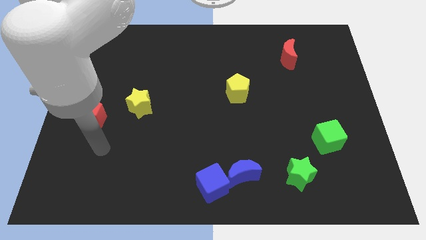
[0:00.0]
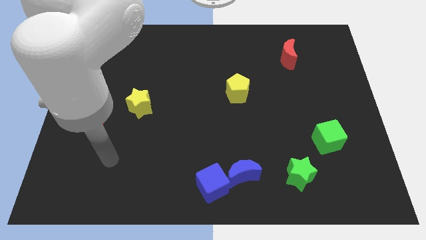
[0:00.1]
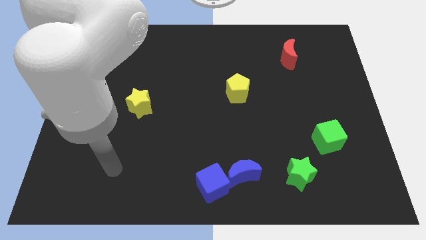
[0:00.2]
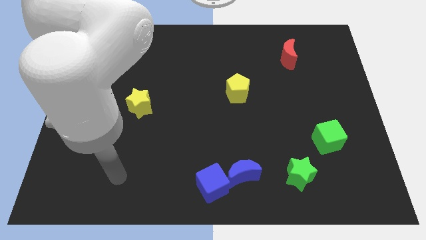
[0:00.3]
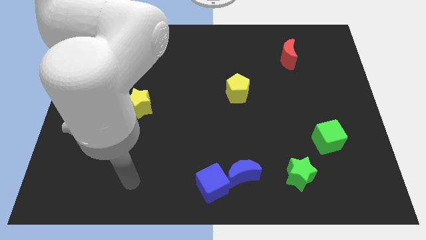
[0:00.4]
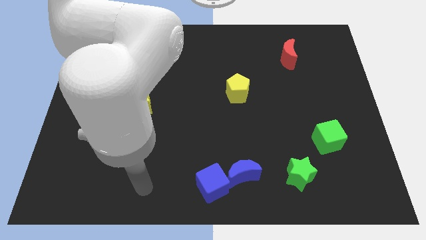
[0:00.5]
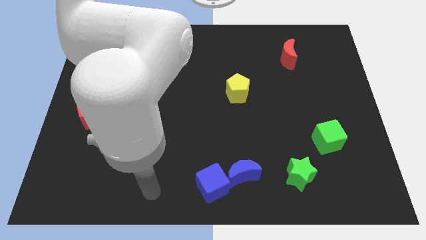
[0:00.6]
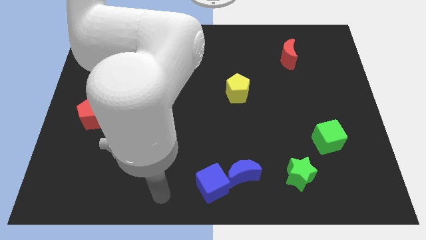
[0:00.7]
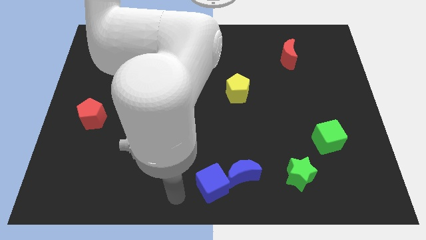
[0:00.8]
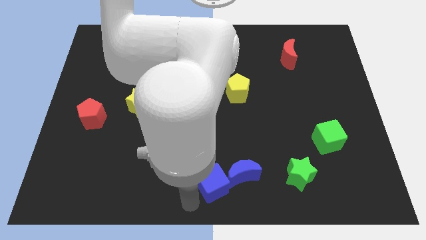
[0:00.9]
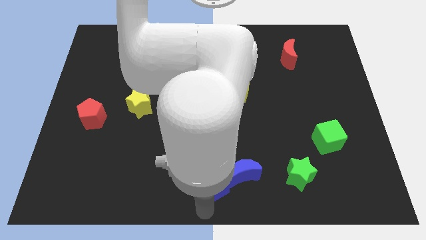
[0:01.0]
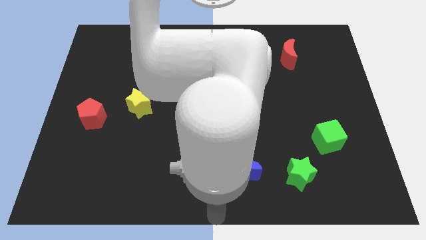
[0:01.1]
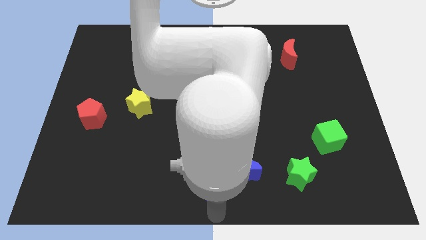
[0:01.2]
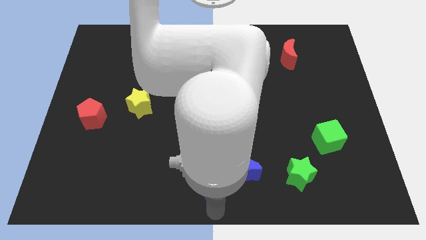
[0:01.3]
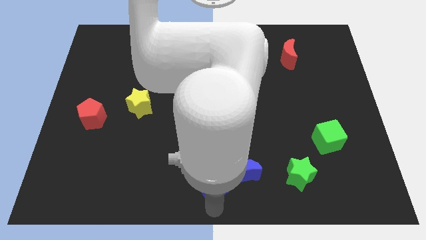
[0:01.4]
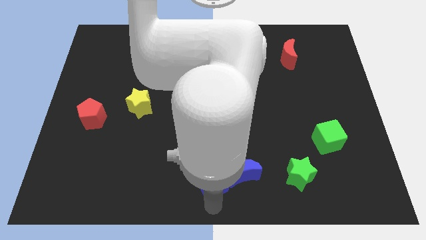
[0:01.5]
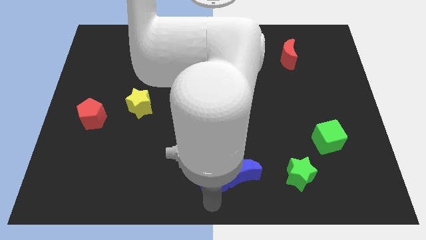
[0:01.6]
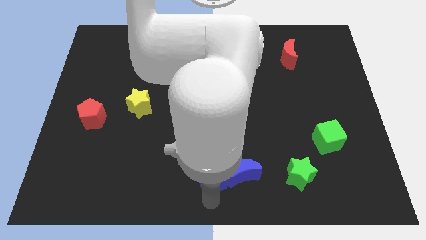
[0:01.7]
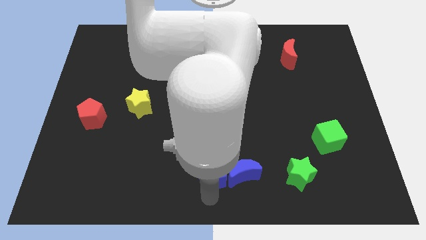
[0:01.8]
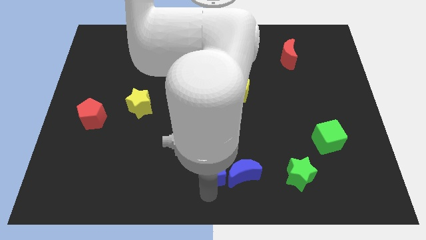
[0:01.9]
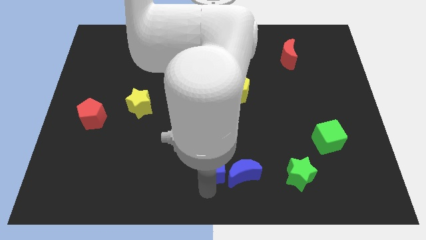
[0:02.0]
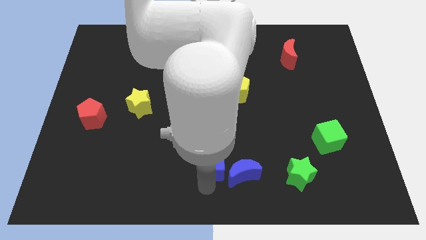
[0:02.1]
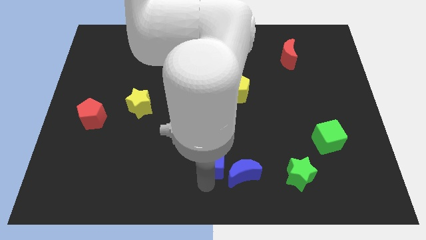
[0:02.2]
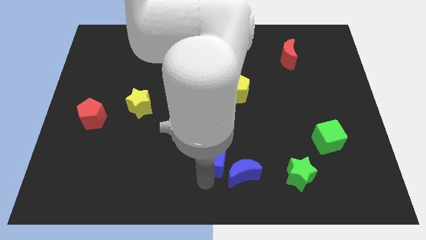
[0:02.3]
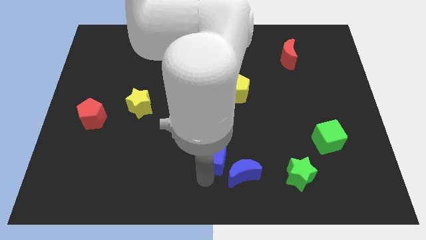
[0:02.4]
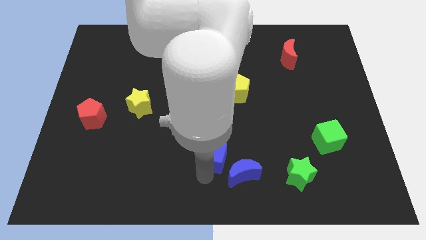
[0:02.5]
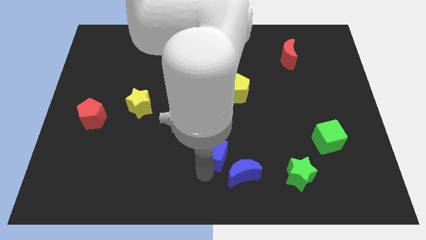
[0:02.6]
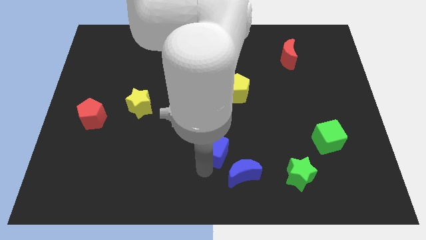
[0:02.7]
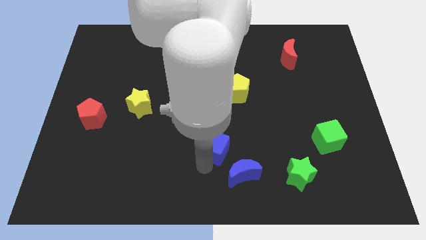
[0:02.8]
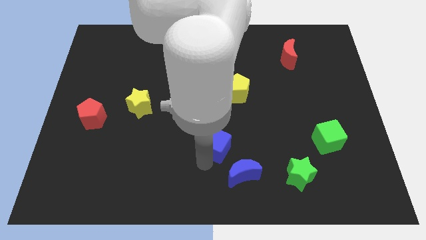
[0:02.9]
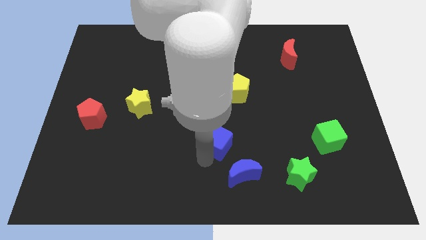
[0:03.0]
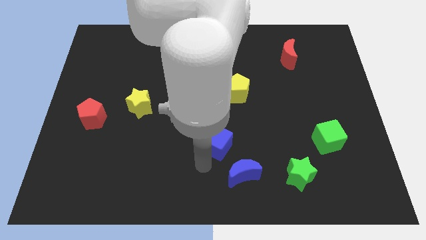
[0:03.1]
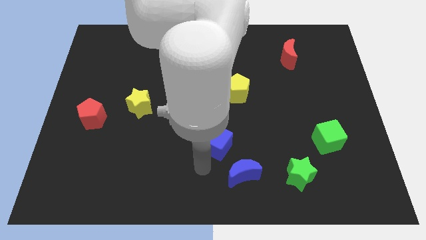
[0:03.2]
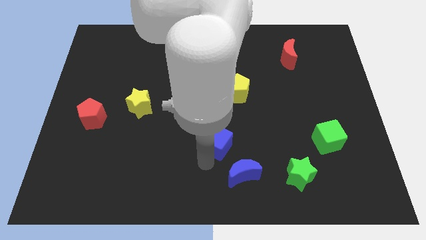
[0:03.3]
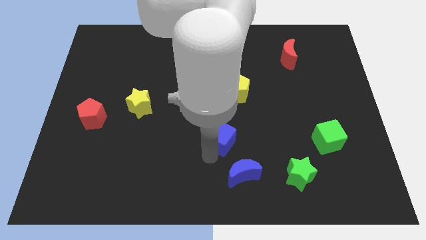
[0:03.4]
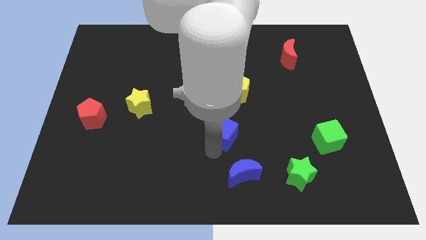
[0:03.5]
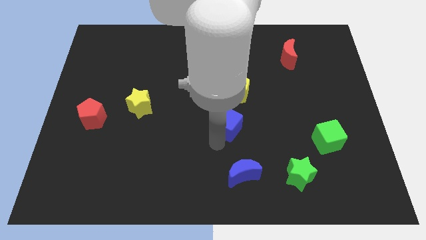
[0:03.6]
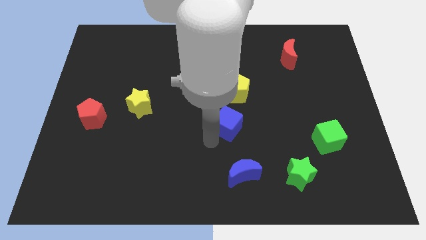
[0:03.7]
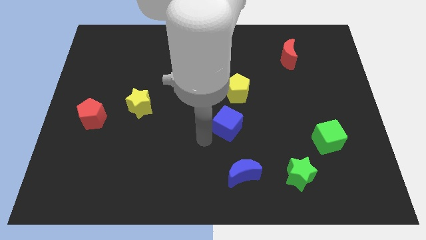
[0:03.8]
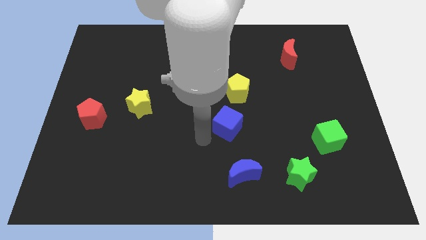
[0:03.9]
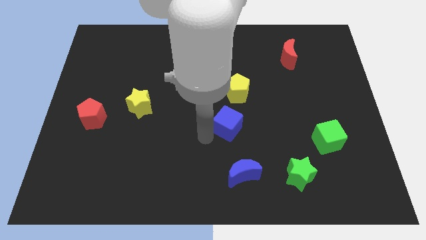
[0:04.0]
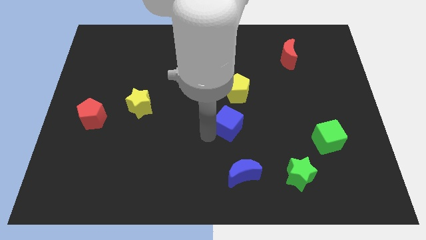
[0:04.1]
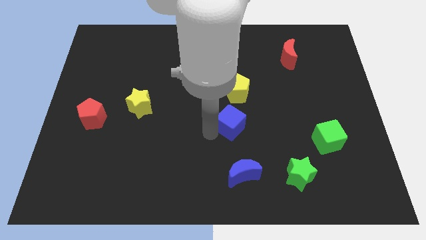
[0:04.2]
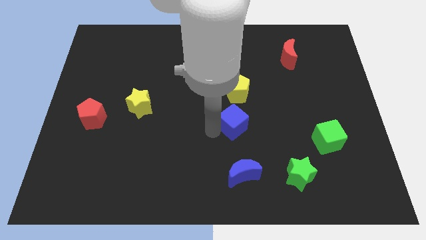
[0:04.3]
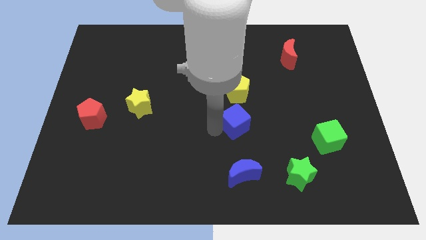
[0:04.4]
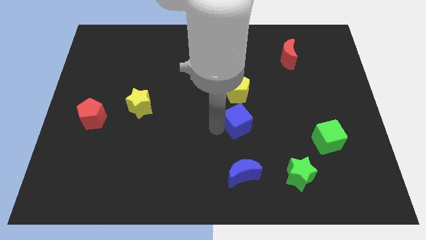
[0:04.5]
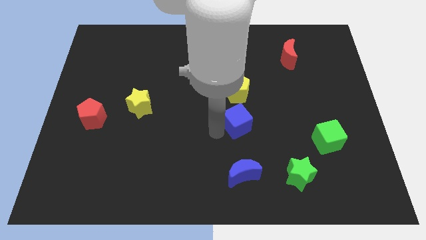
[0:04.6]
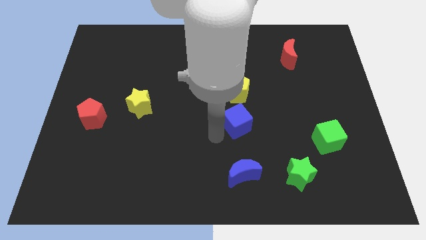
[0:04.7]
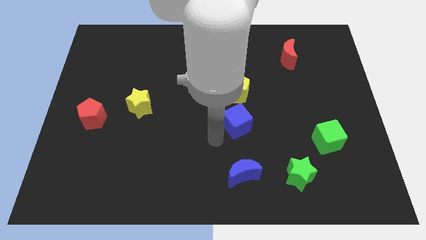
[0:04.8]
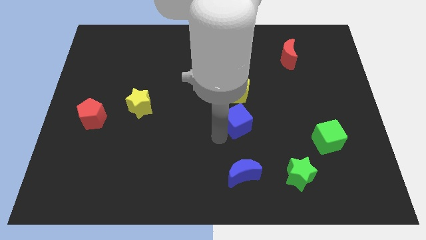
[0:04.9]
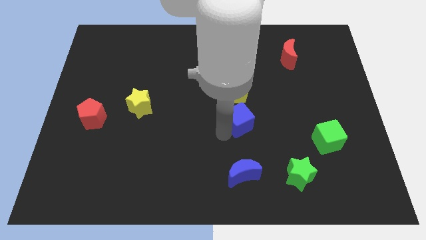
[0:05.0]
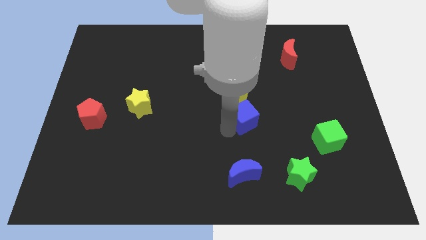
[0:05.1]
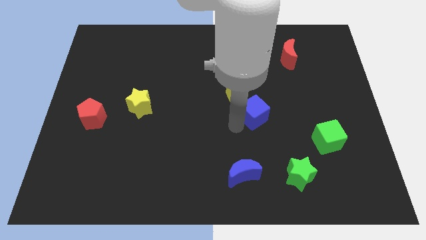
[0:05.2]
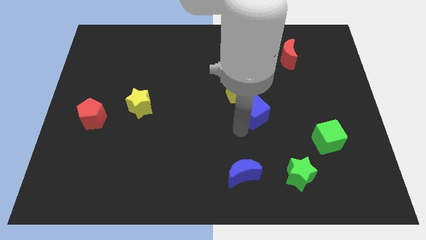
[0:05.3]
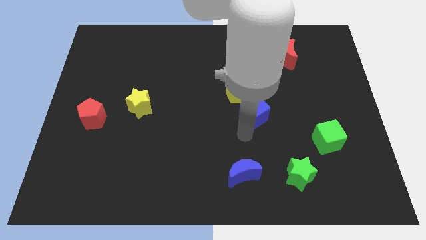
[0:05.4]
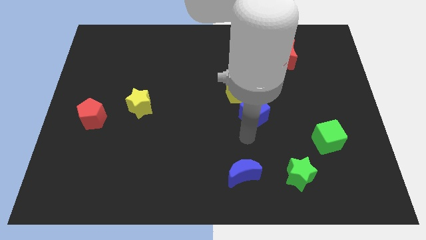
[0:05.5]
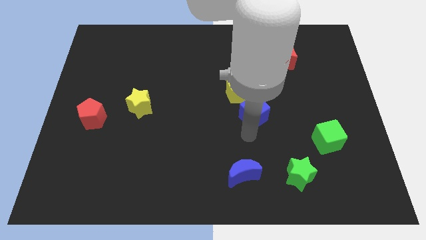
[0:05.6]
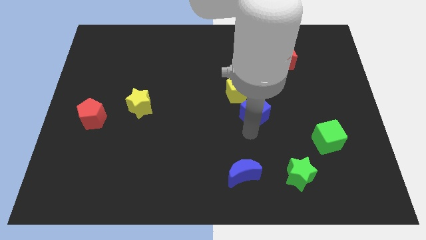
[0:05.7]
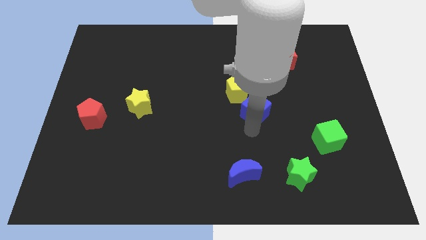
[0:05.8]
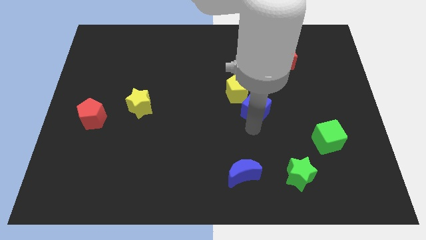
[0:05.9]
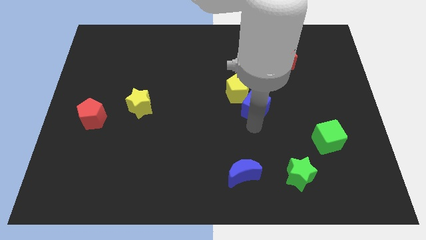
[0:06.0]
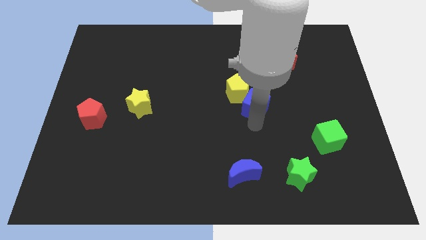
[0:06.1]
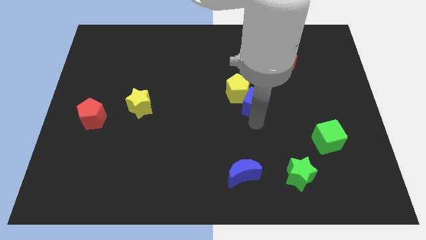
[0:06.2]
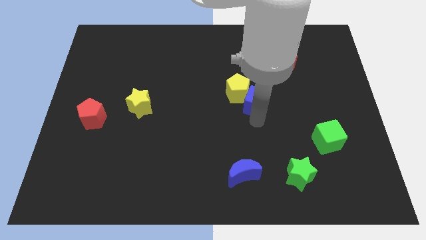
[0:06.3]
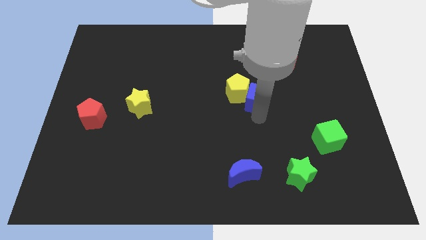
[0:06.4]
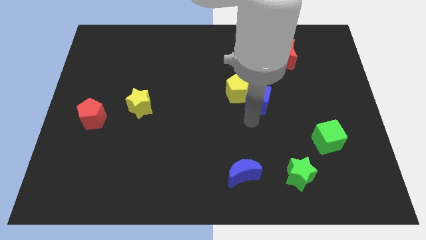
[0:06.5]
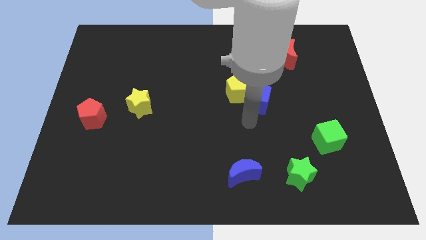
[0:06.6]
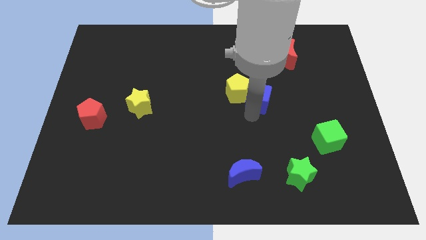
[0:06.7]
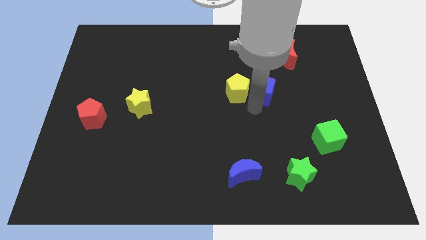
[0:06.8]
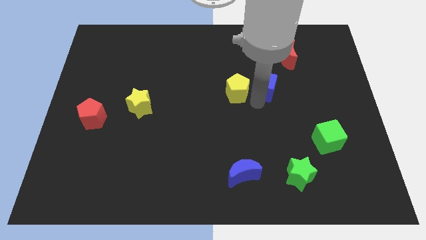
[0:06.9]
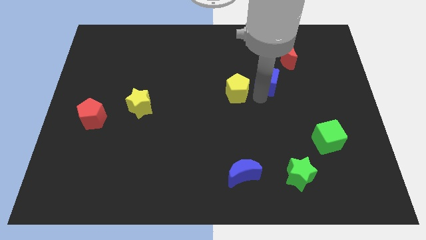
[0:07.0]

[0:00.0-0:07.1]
push the blue cube to the bottom left side of the red moon

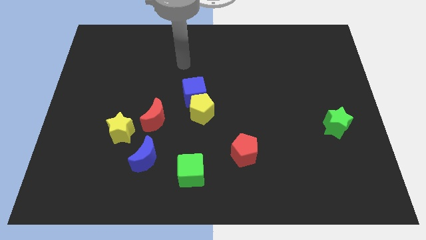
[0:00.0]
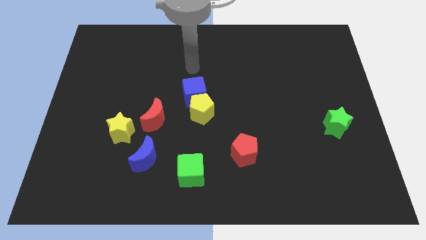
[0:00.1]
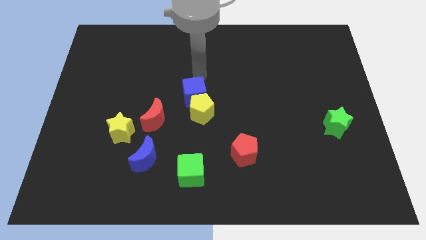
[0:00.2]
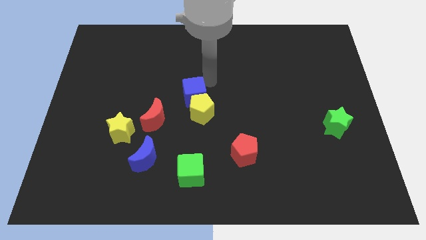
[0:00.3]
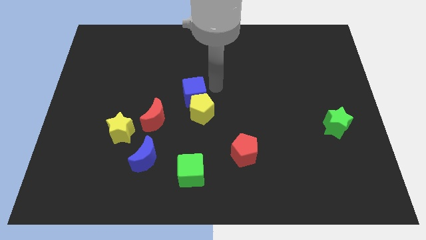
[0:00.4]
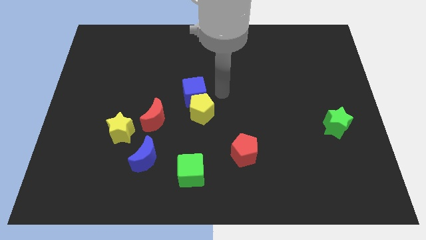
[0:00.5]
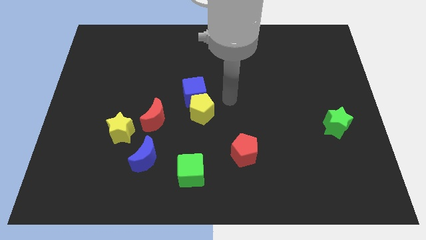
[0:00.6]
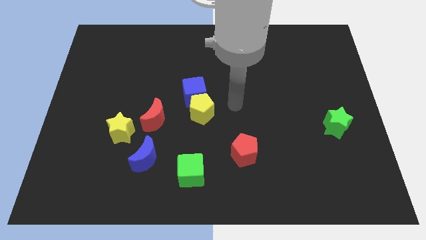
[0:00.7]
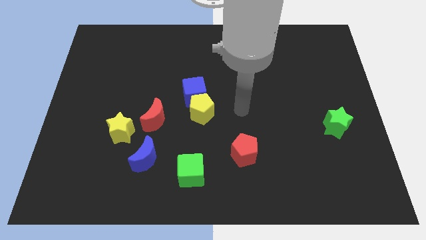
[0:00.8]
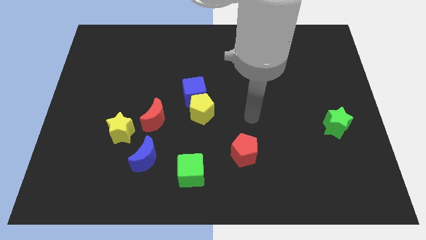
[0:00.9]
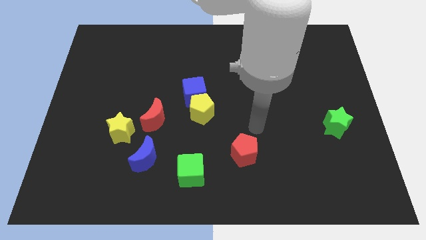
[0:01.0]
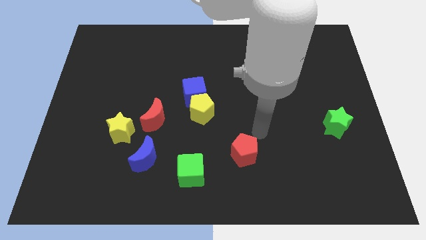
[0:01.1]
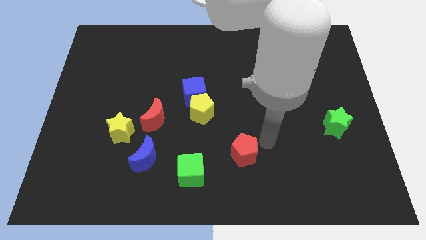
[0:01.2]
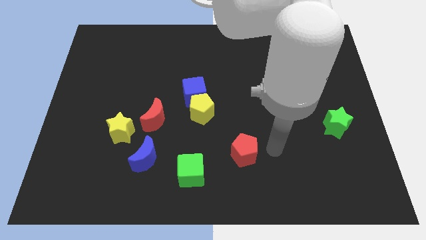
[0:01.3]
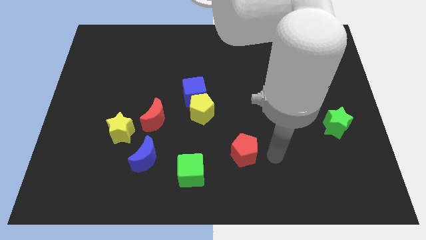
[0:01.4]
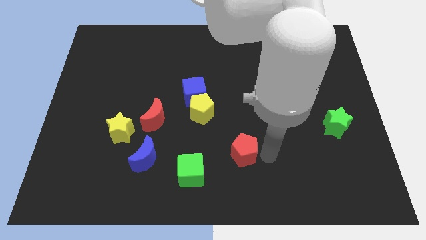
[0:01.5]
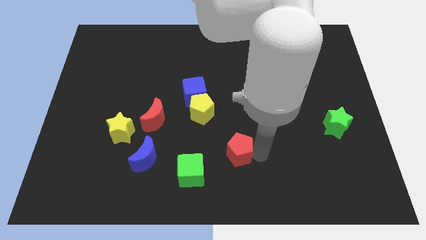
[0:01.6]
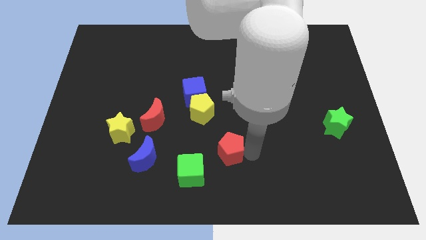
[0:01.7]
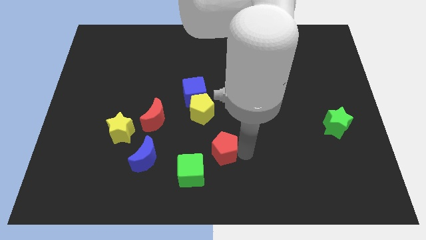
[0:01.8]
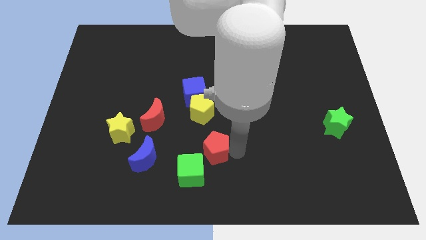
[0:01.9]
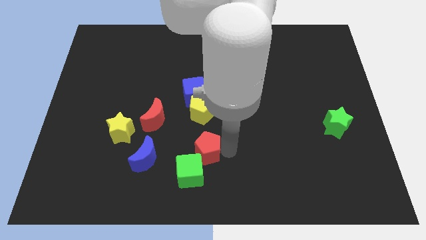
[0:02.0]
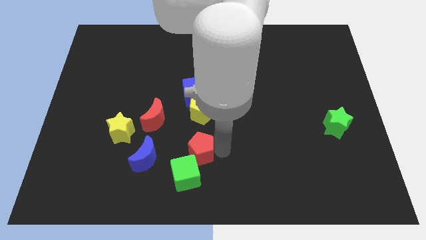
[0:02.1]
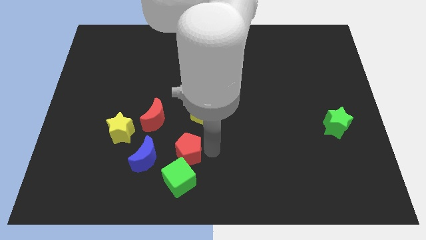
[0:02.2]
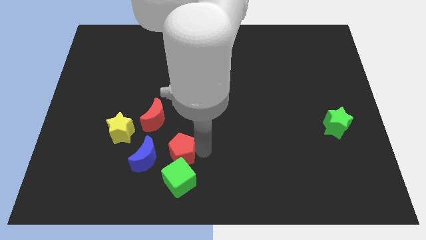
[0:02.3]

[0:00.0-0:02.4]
slide the red pentagon to the top left side of the green cube
